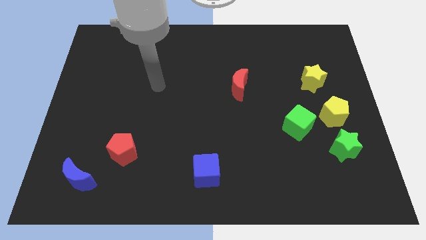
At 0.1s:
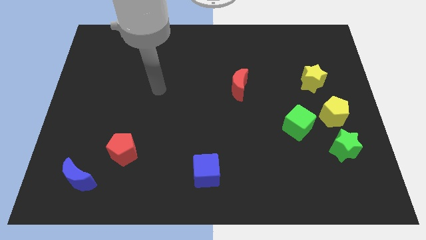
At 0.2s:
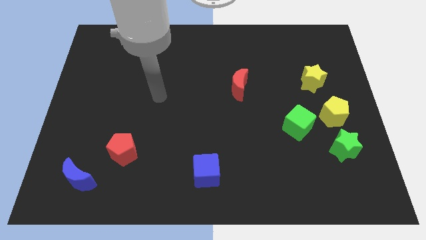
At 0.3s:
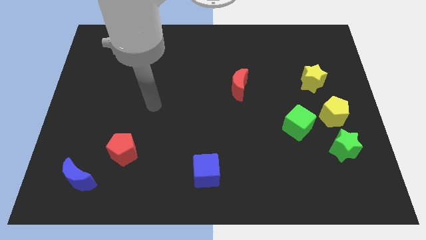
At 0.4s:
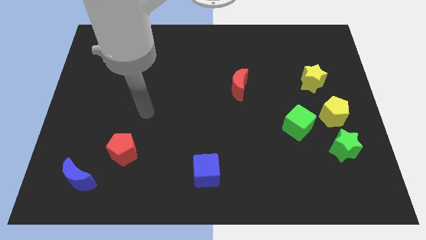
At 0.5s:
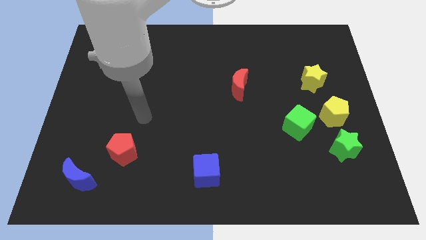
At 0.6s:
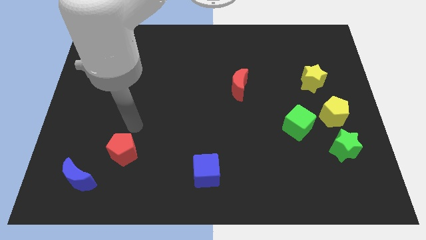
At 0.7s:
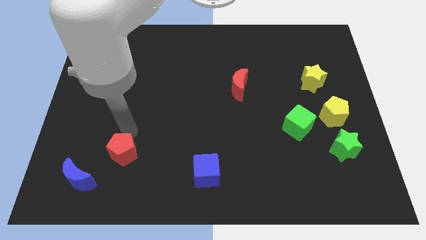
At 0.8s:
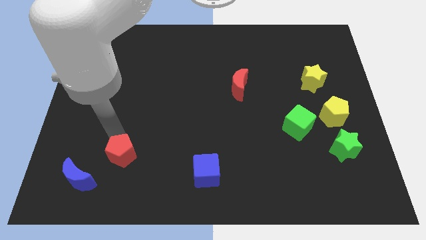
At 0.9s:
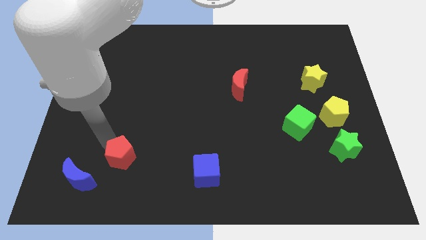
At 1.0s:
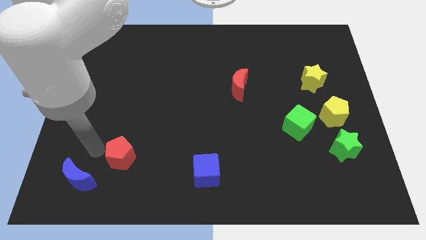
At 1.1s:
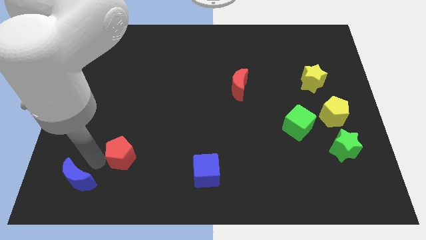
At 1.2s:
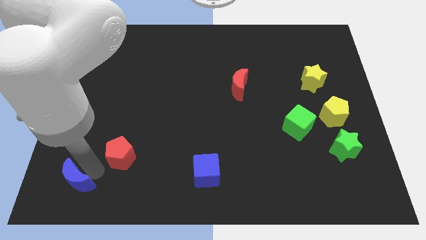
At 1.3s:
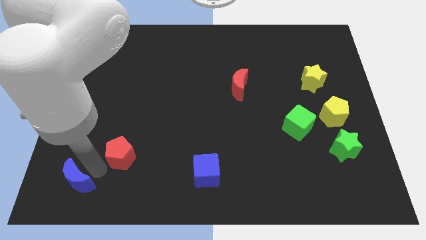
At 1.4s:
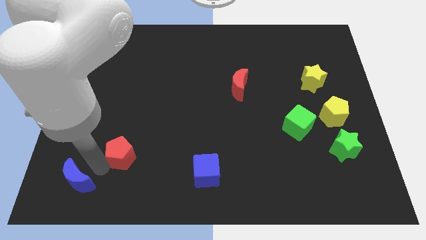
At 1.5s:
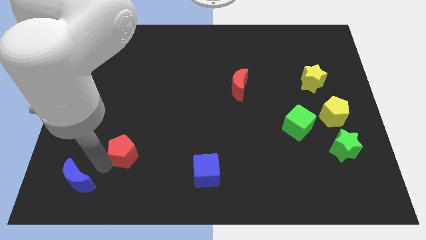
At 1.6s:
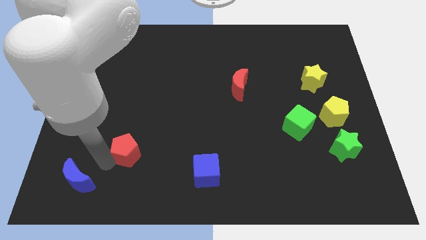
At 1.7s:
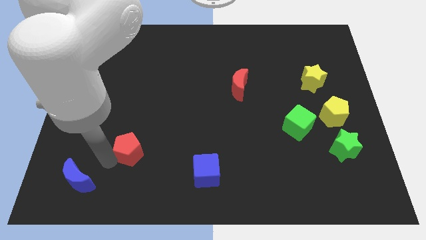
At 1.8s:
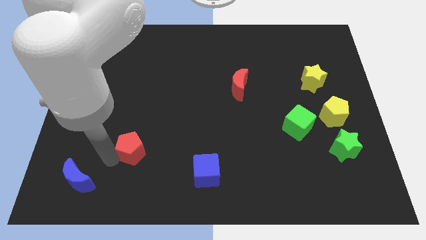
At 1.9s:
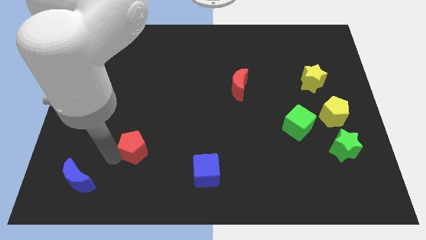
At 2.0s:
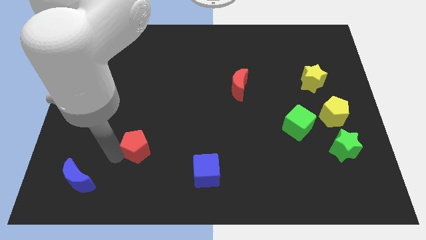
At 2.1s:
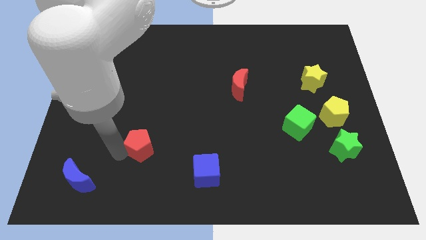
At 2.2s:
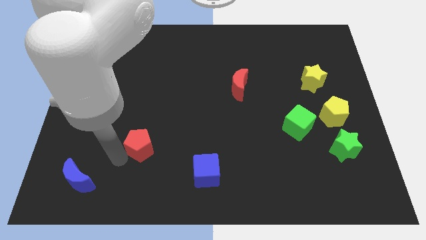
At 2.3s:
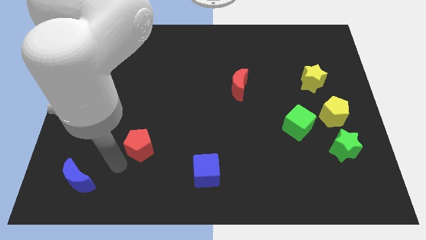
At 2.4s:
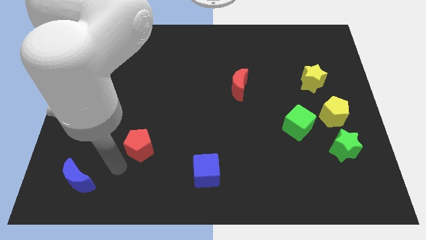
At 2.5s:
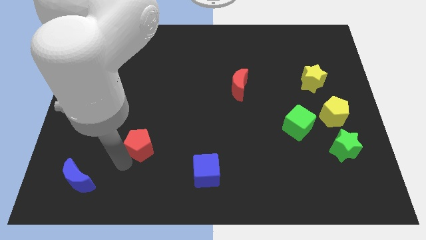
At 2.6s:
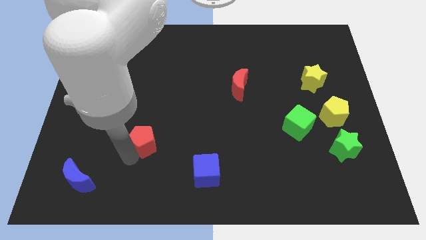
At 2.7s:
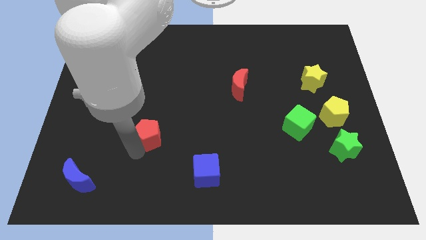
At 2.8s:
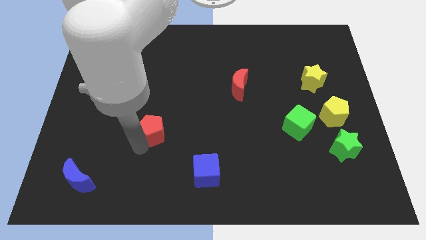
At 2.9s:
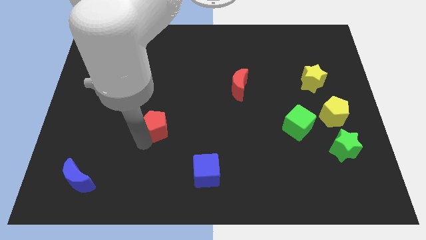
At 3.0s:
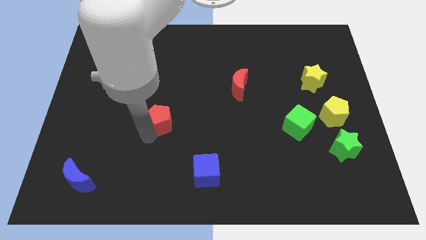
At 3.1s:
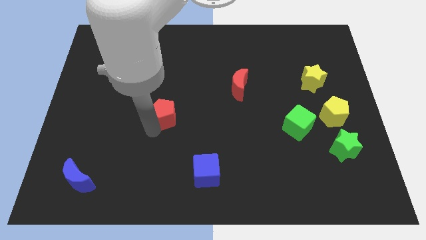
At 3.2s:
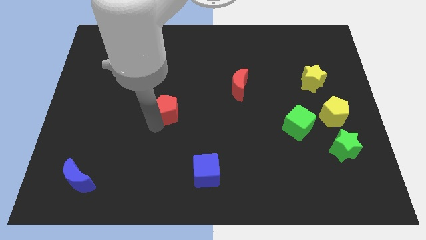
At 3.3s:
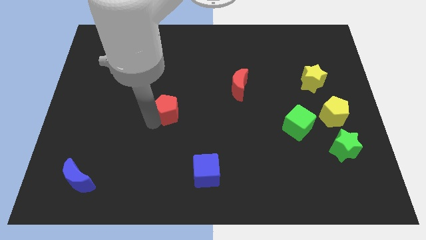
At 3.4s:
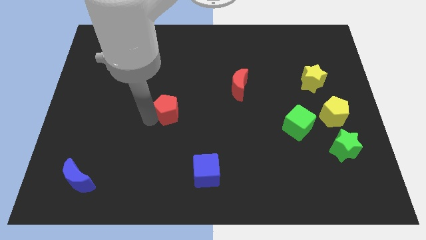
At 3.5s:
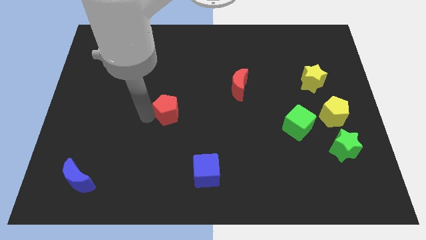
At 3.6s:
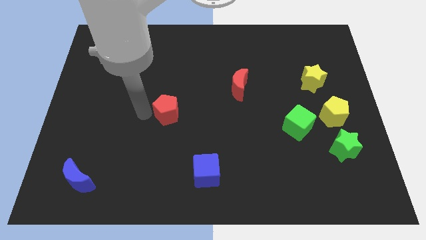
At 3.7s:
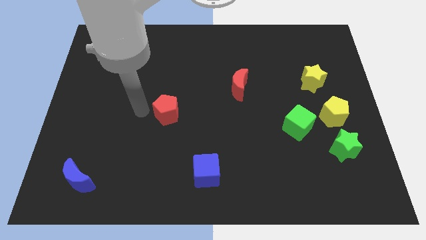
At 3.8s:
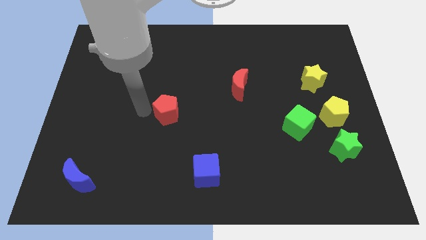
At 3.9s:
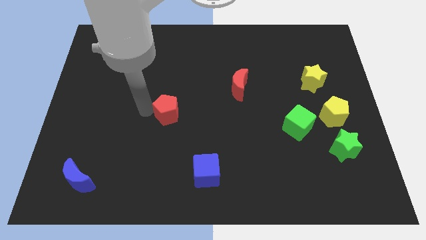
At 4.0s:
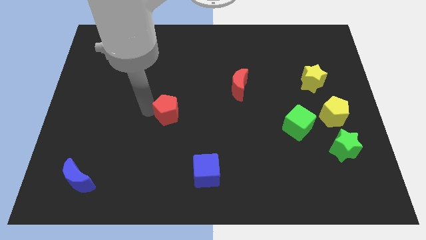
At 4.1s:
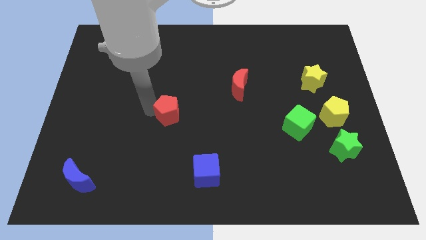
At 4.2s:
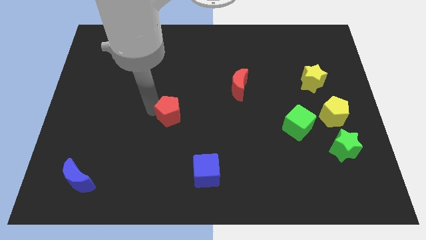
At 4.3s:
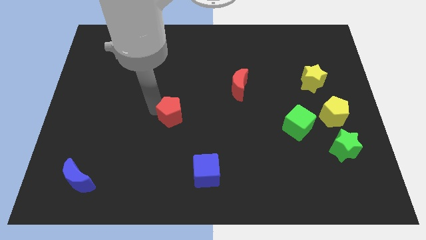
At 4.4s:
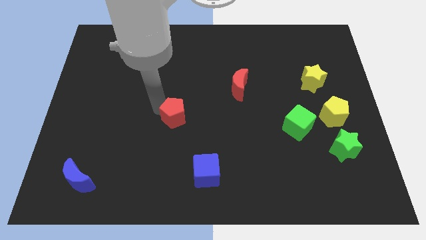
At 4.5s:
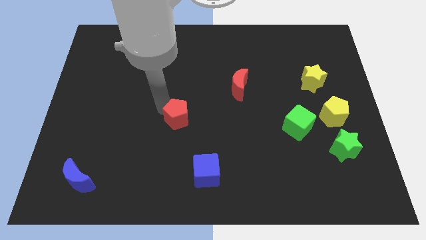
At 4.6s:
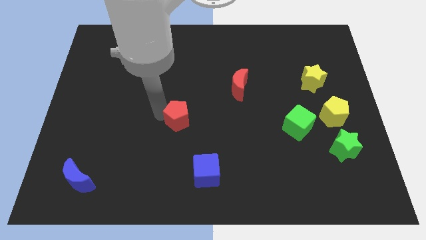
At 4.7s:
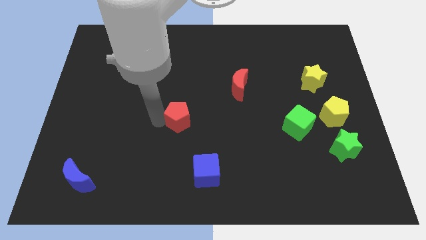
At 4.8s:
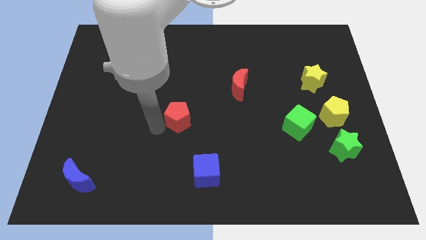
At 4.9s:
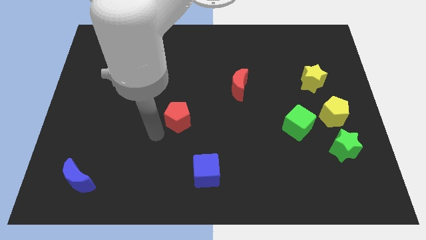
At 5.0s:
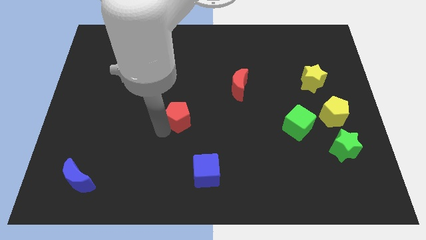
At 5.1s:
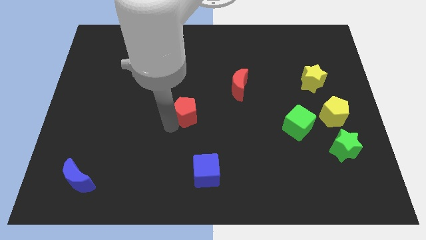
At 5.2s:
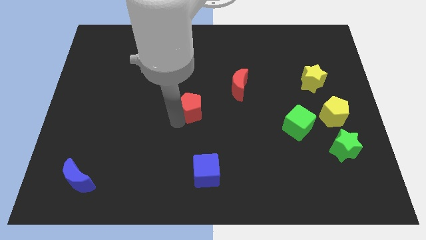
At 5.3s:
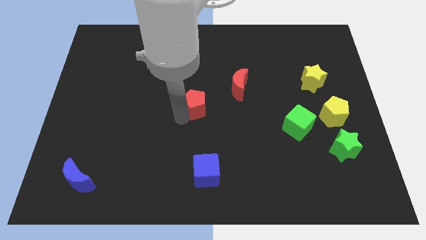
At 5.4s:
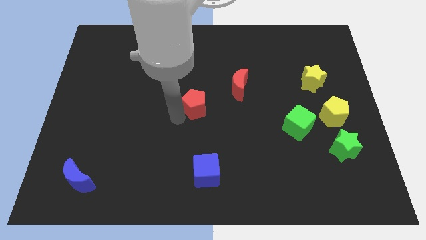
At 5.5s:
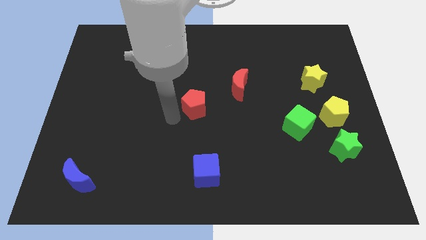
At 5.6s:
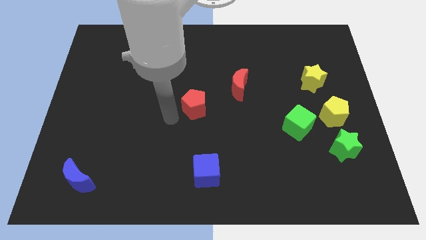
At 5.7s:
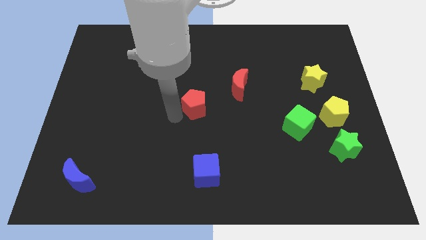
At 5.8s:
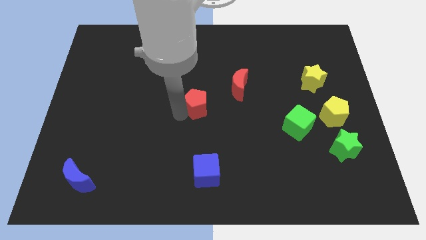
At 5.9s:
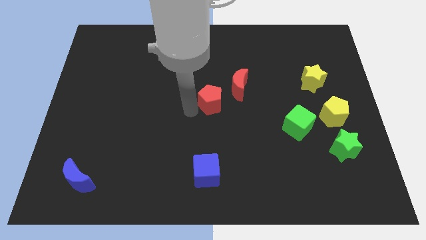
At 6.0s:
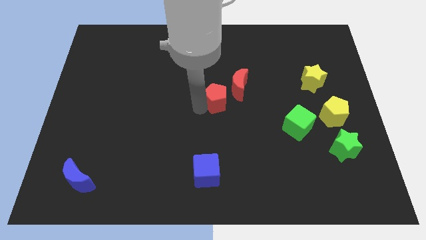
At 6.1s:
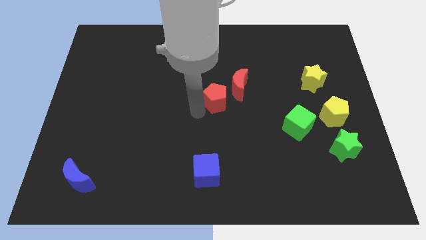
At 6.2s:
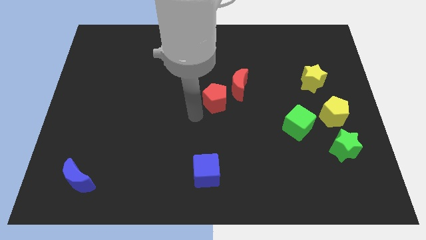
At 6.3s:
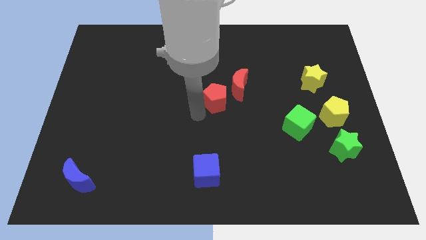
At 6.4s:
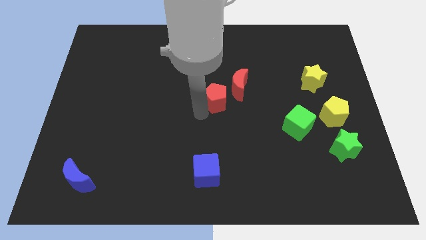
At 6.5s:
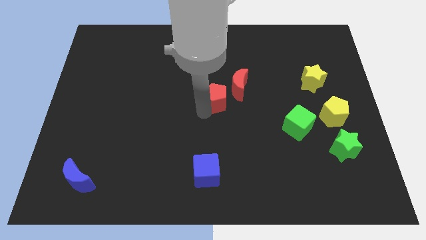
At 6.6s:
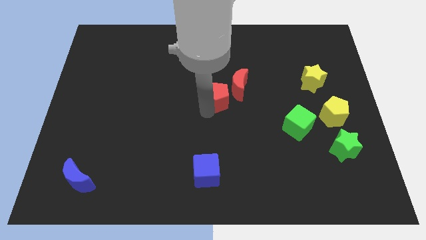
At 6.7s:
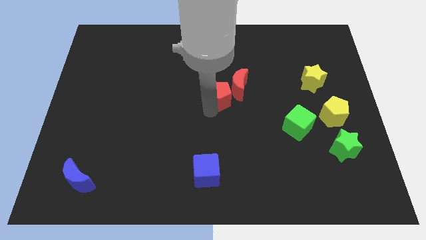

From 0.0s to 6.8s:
slide the red pentagon close to the red moon

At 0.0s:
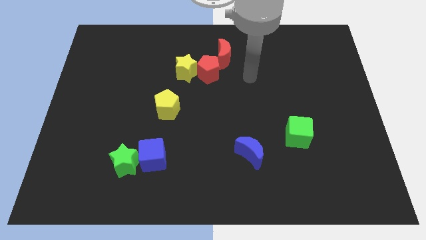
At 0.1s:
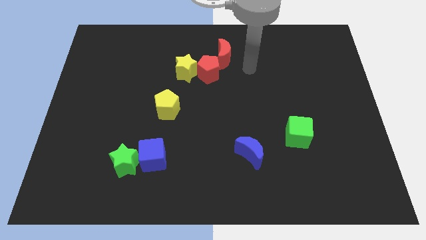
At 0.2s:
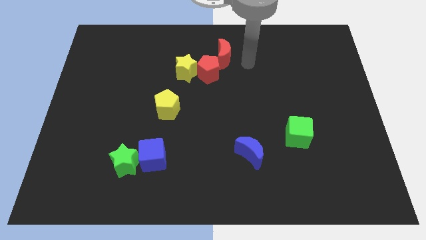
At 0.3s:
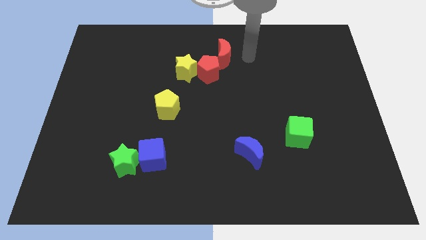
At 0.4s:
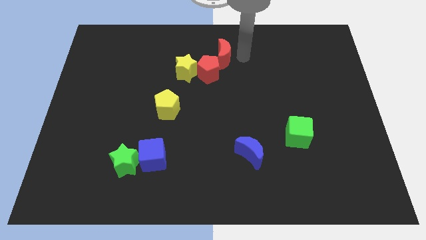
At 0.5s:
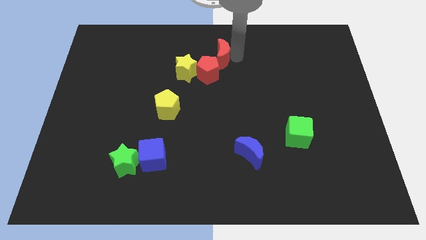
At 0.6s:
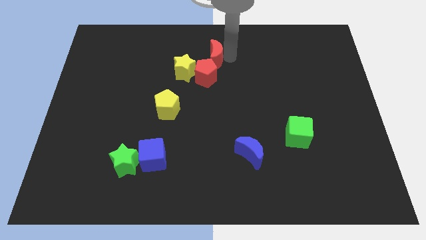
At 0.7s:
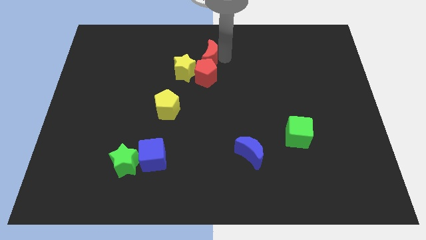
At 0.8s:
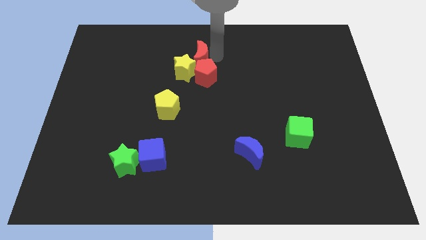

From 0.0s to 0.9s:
move the red moon towards the yellow star
